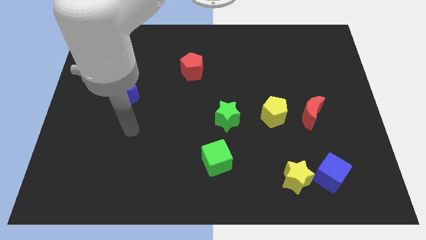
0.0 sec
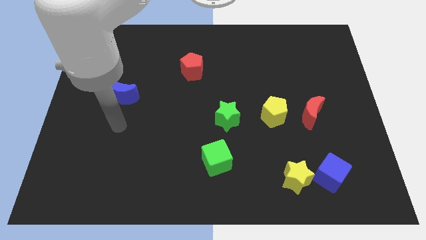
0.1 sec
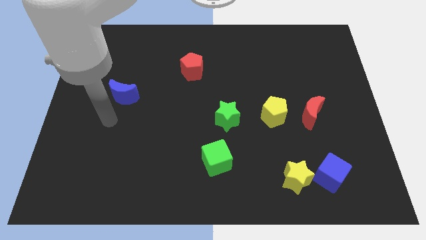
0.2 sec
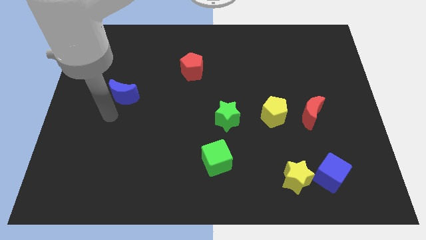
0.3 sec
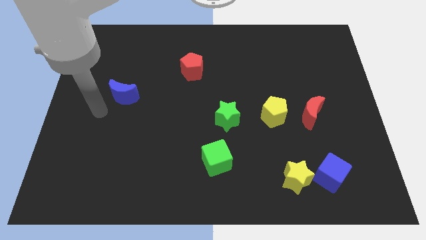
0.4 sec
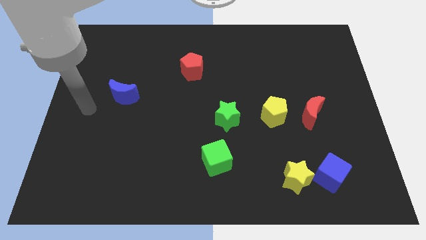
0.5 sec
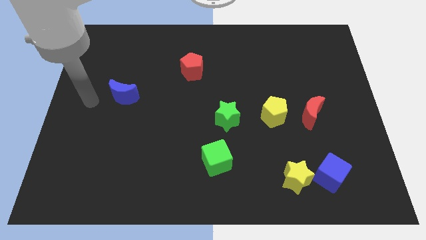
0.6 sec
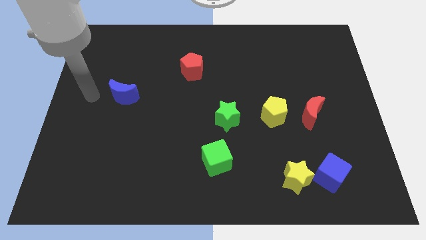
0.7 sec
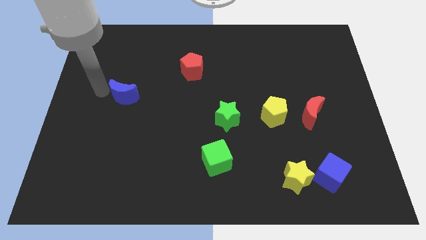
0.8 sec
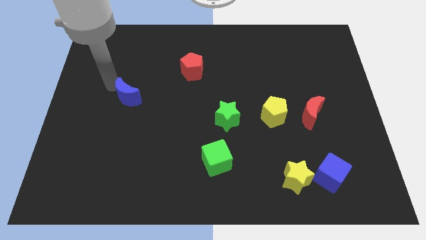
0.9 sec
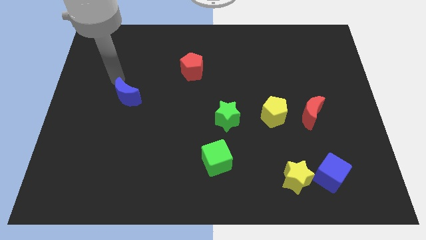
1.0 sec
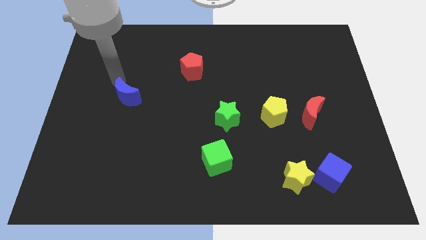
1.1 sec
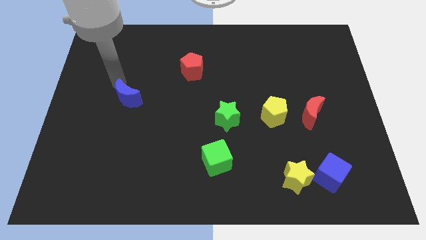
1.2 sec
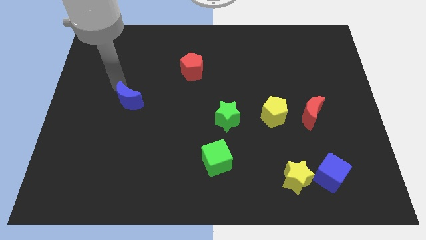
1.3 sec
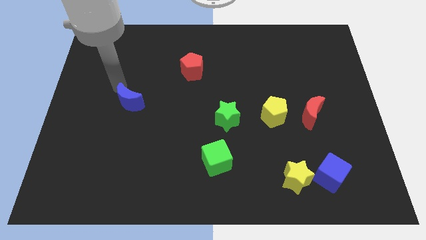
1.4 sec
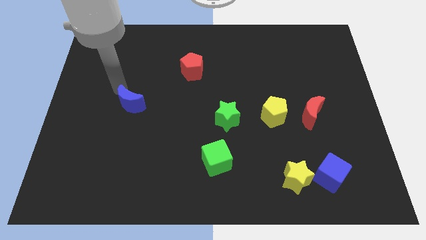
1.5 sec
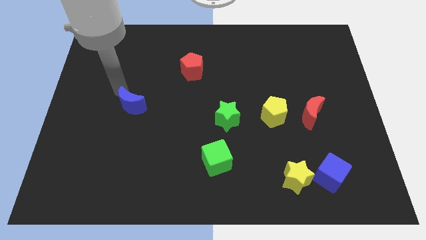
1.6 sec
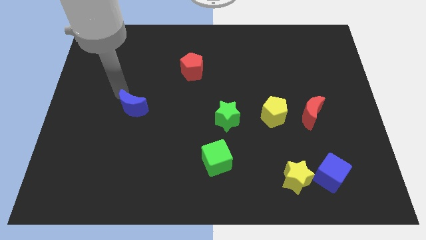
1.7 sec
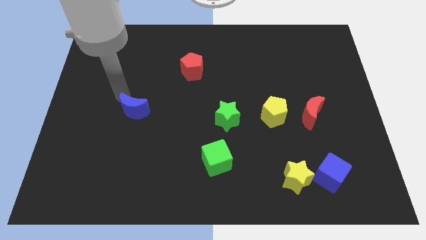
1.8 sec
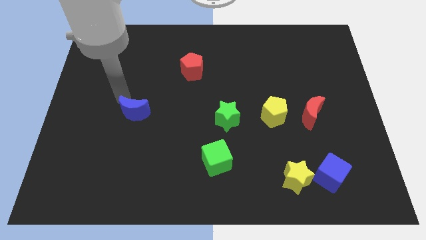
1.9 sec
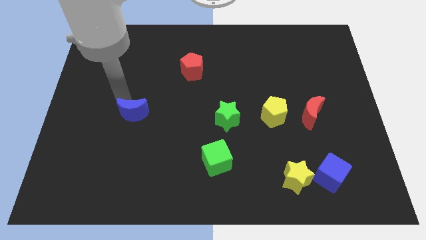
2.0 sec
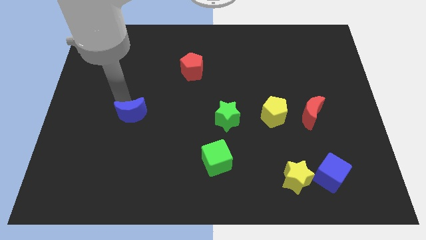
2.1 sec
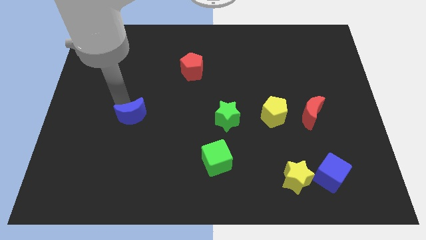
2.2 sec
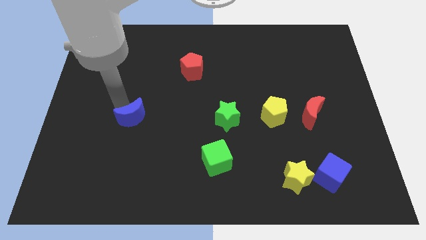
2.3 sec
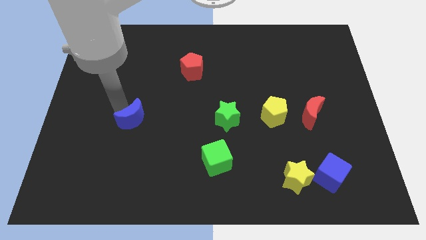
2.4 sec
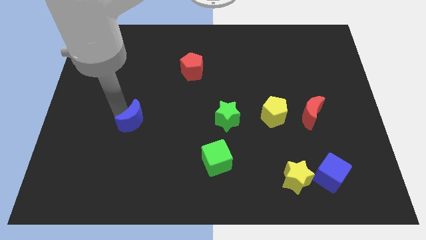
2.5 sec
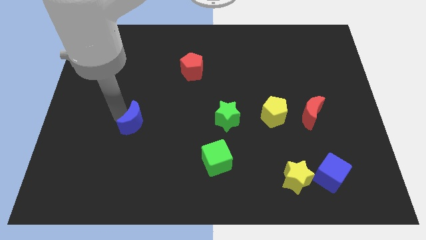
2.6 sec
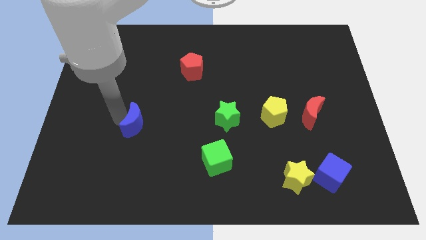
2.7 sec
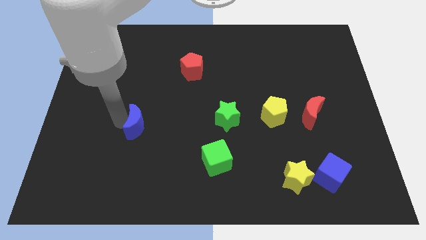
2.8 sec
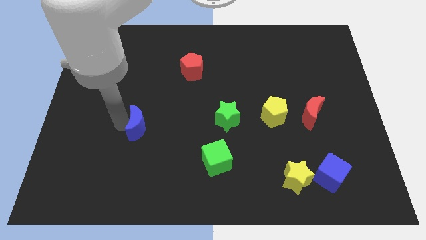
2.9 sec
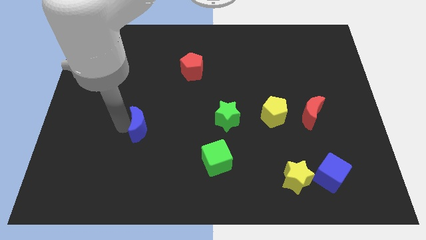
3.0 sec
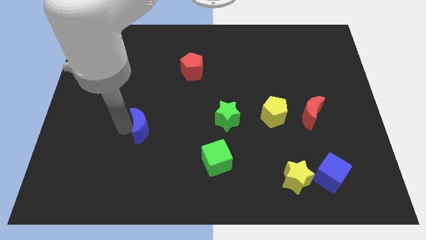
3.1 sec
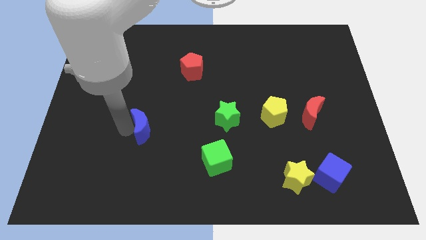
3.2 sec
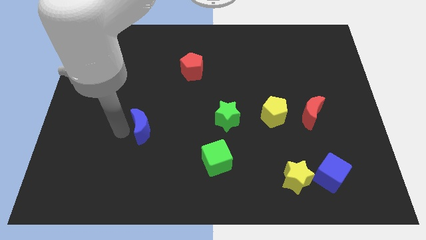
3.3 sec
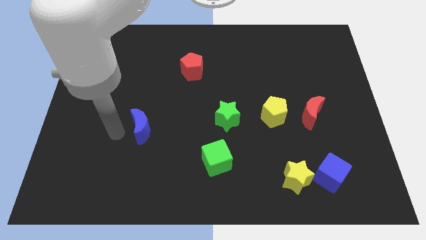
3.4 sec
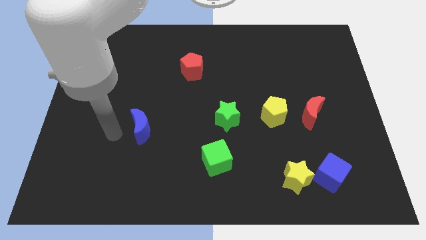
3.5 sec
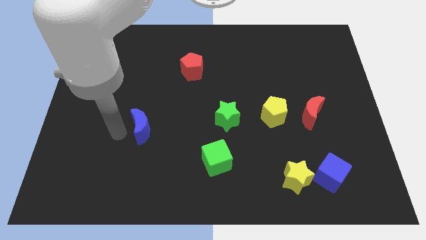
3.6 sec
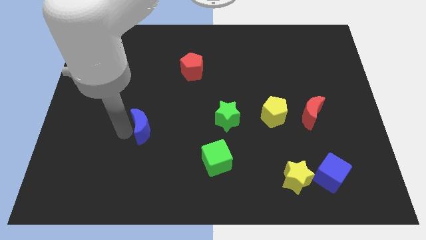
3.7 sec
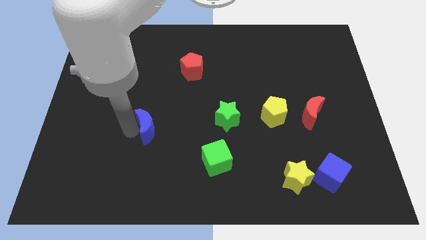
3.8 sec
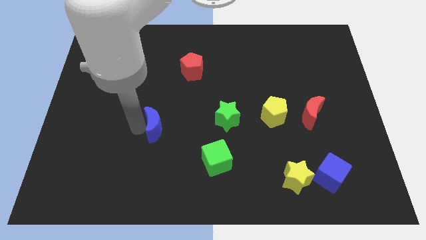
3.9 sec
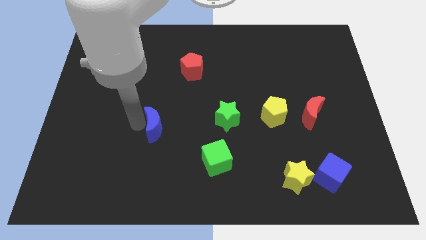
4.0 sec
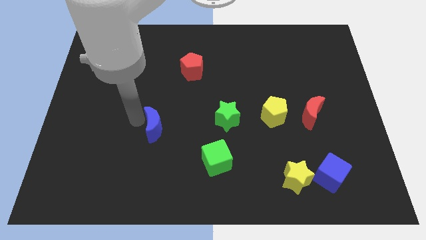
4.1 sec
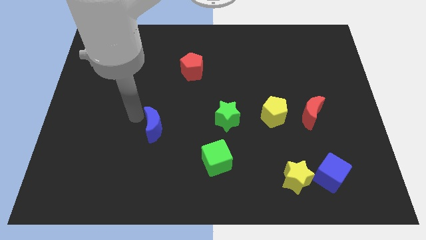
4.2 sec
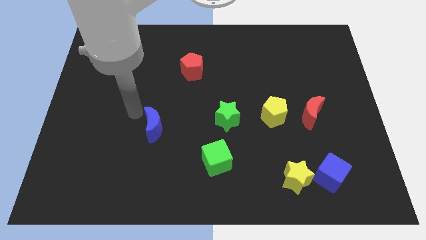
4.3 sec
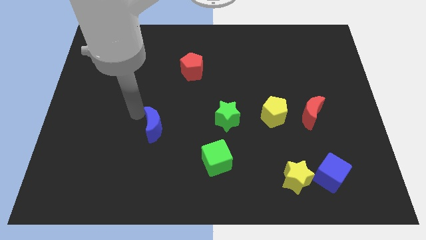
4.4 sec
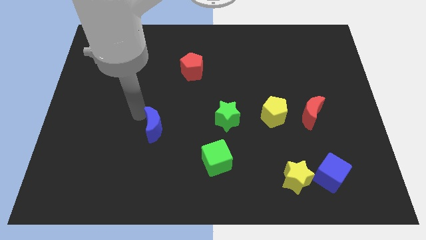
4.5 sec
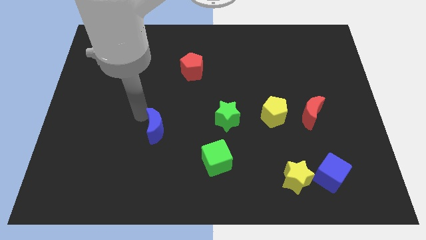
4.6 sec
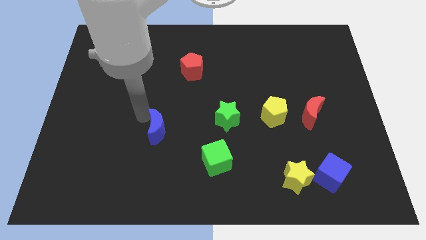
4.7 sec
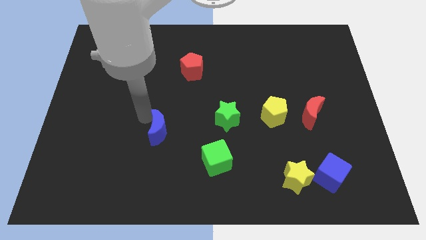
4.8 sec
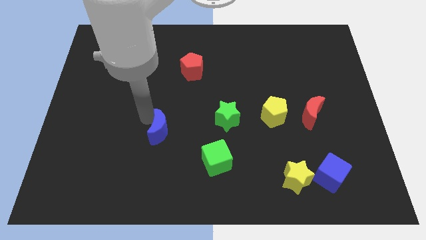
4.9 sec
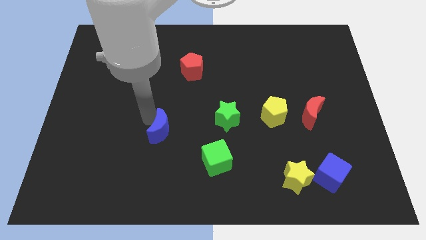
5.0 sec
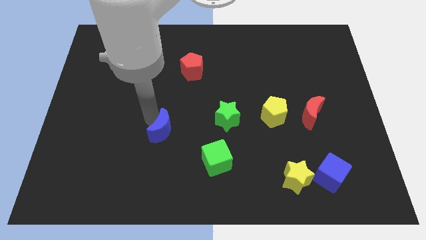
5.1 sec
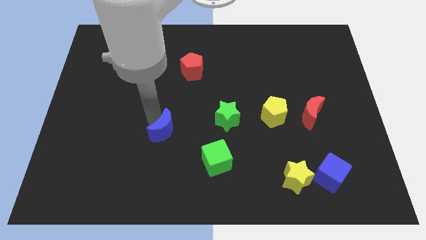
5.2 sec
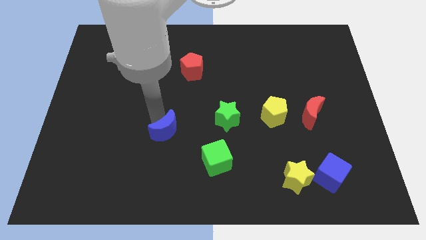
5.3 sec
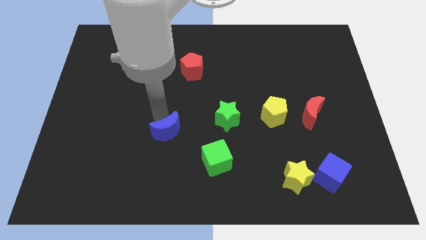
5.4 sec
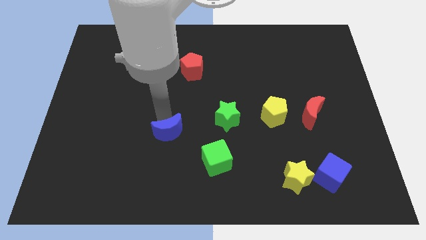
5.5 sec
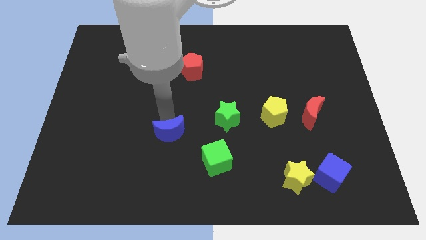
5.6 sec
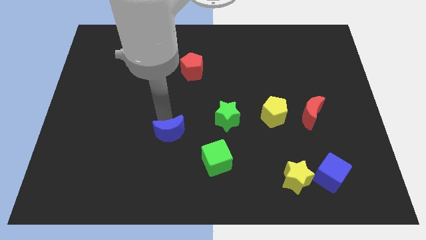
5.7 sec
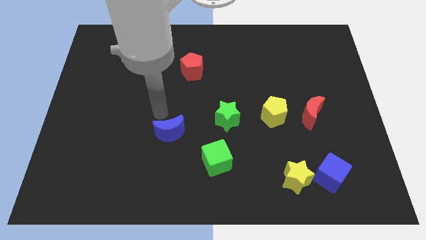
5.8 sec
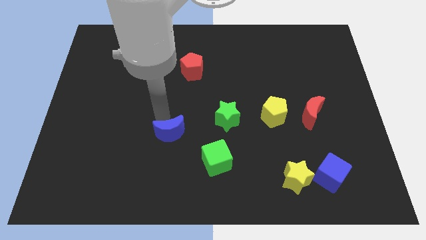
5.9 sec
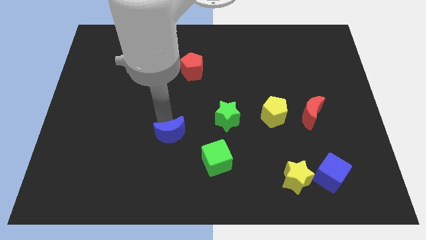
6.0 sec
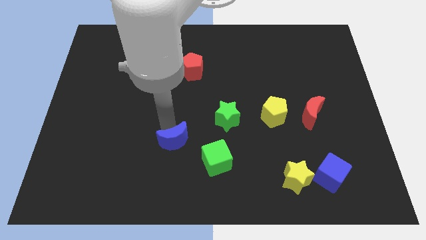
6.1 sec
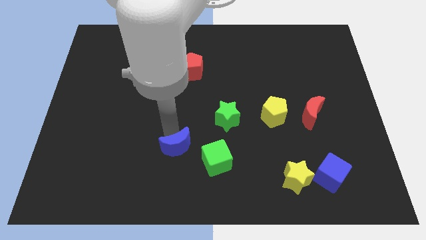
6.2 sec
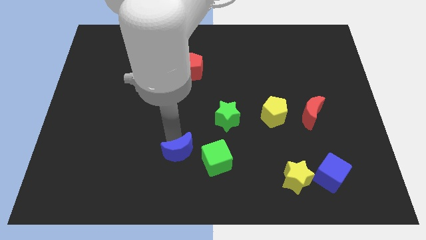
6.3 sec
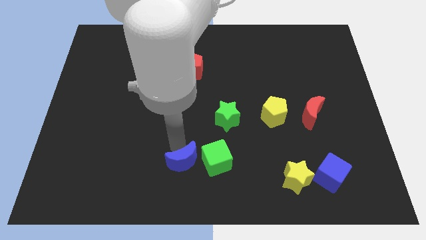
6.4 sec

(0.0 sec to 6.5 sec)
move the blue moon to the bottom

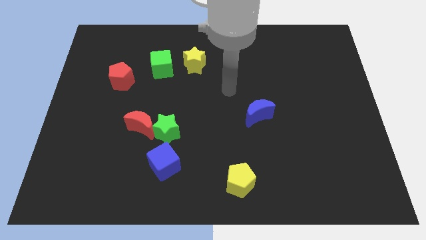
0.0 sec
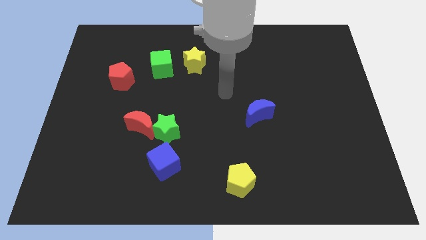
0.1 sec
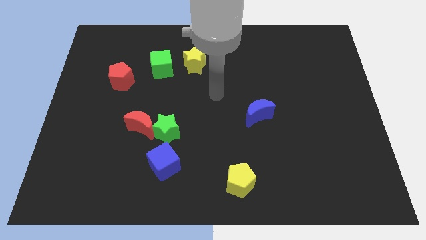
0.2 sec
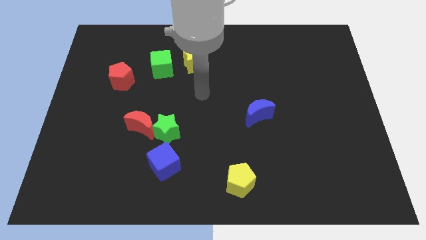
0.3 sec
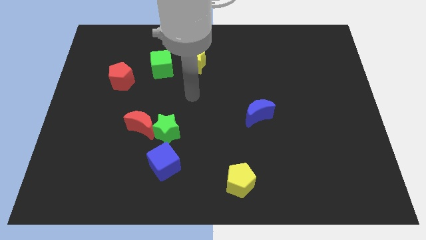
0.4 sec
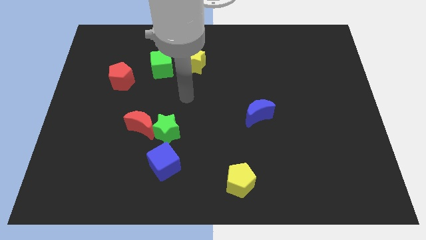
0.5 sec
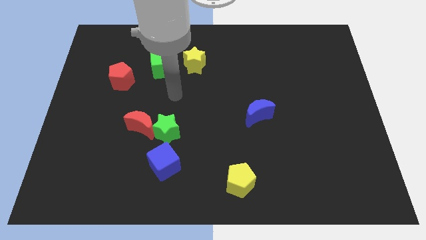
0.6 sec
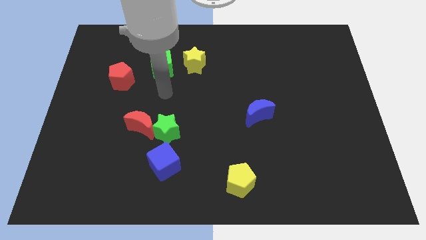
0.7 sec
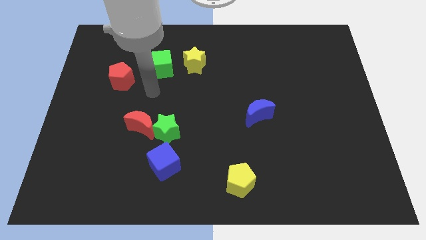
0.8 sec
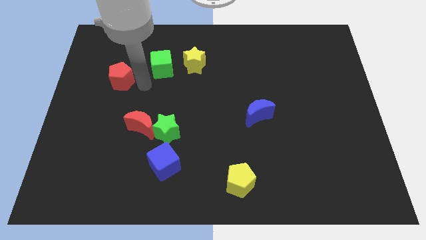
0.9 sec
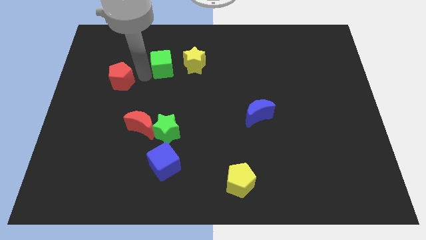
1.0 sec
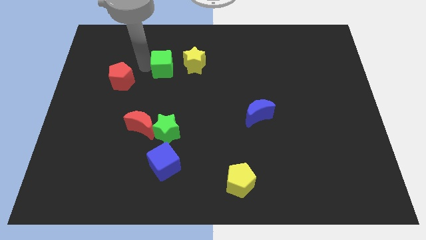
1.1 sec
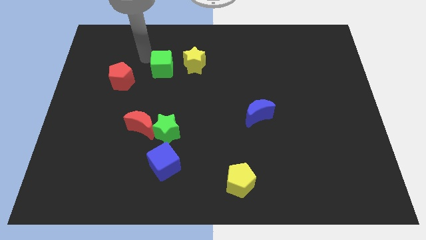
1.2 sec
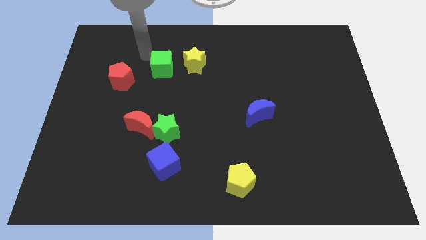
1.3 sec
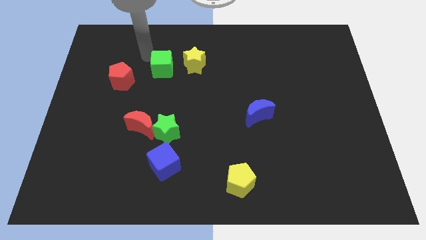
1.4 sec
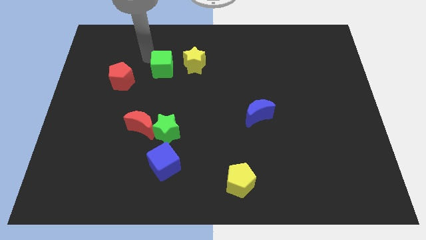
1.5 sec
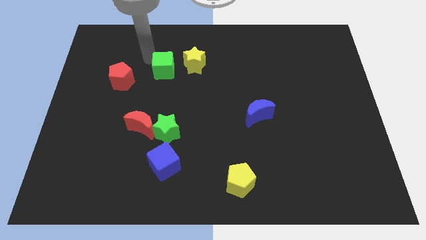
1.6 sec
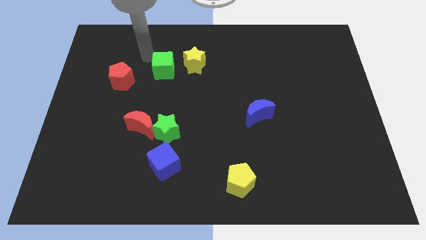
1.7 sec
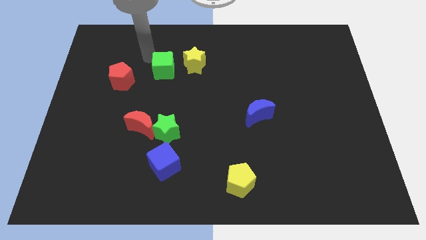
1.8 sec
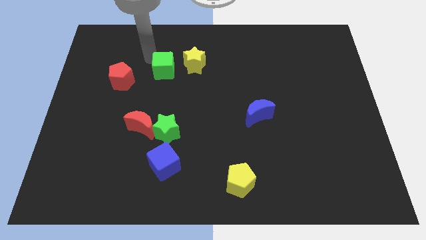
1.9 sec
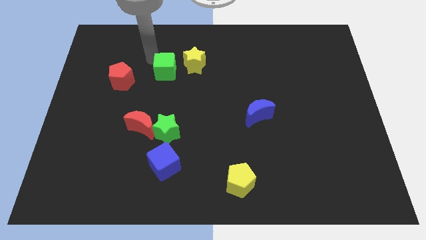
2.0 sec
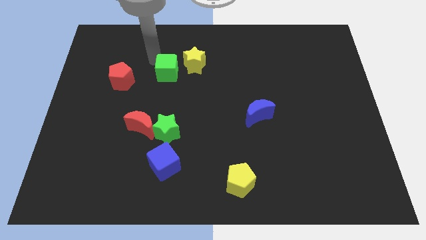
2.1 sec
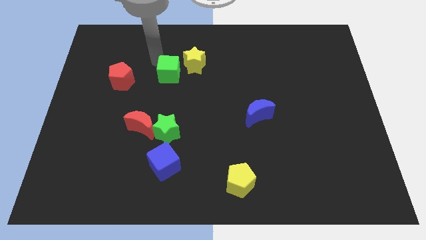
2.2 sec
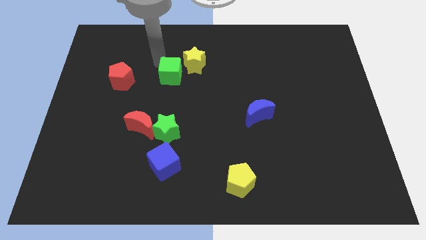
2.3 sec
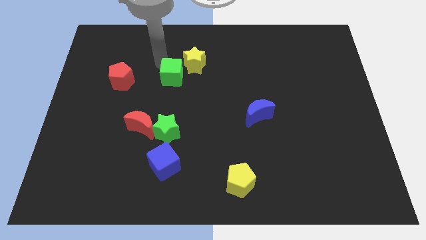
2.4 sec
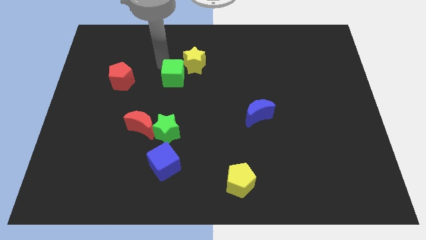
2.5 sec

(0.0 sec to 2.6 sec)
slide the green cube to the middle
